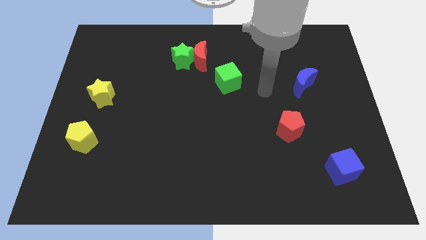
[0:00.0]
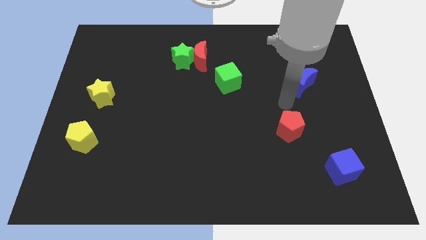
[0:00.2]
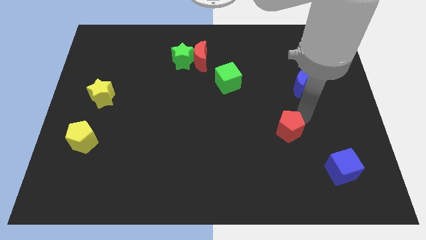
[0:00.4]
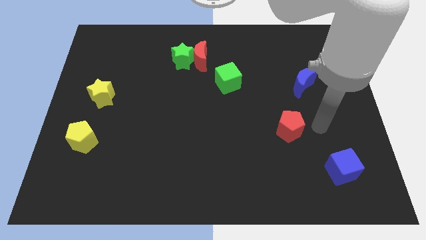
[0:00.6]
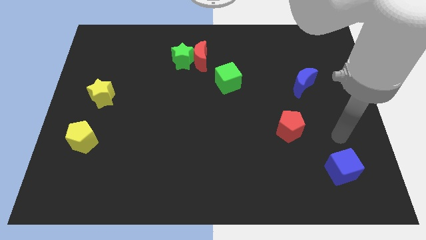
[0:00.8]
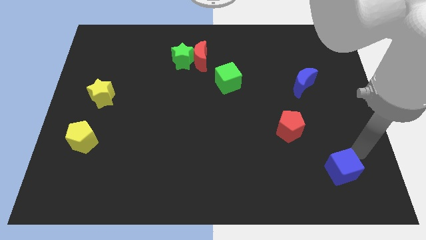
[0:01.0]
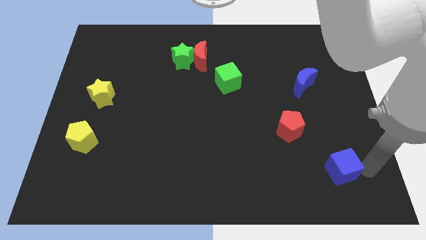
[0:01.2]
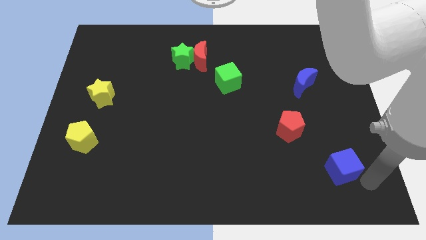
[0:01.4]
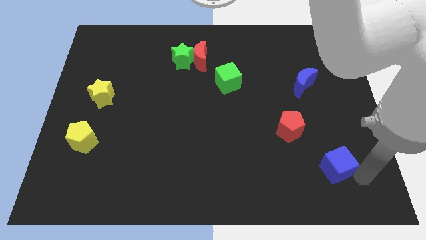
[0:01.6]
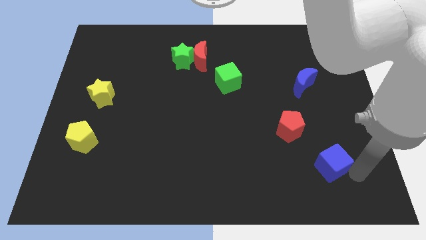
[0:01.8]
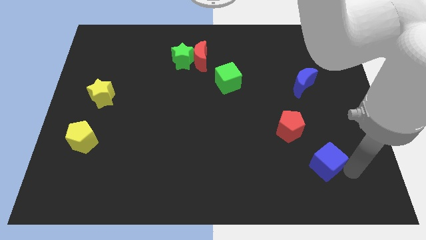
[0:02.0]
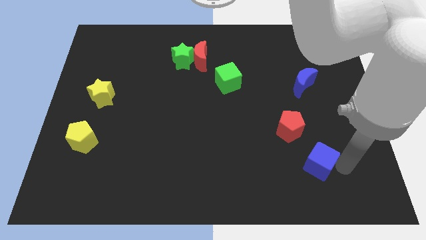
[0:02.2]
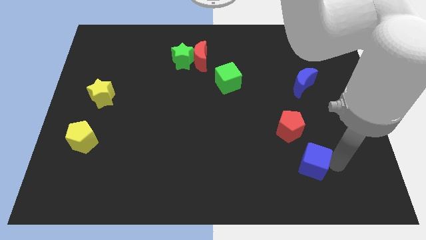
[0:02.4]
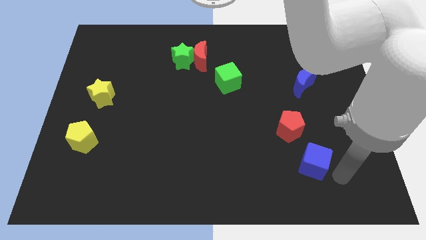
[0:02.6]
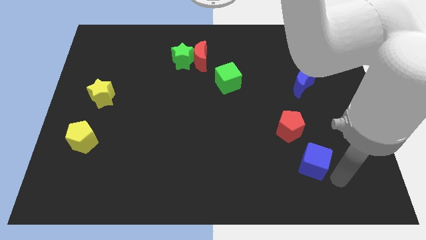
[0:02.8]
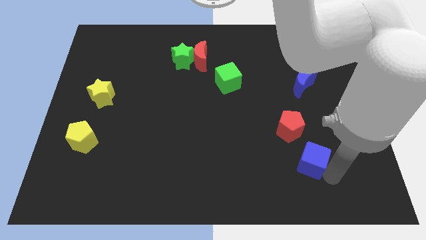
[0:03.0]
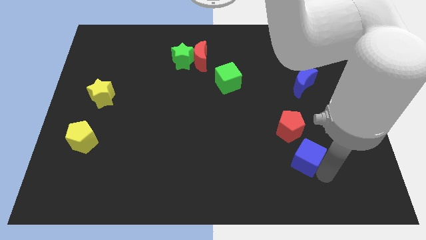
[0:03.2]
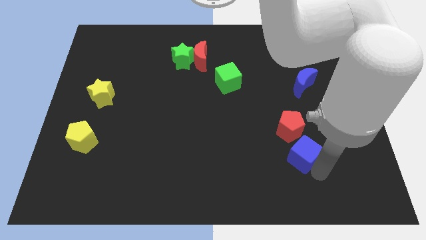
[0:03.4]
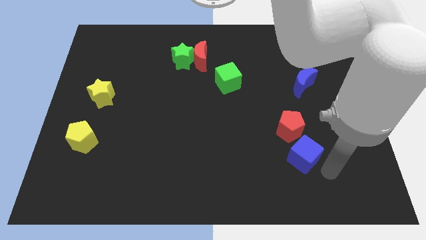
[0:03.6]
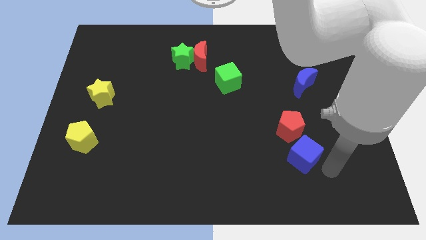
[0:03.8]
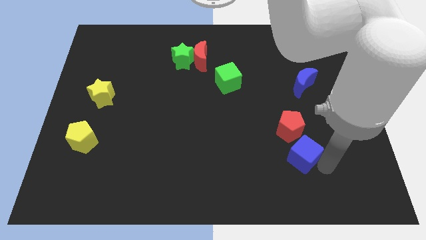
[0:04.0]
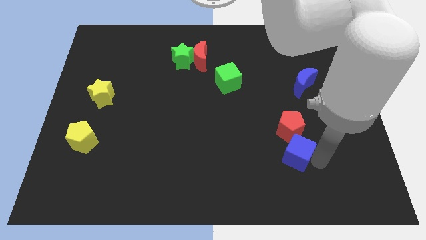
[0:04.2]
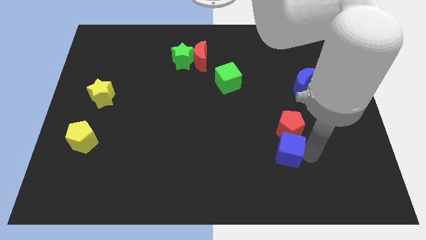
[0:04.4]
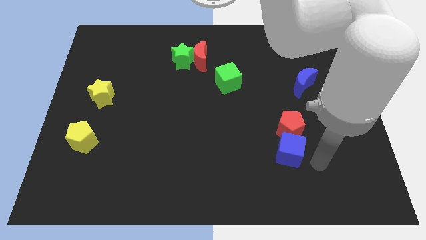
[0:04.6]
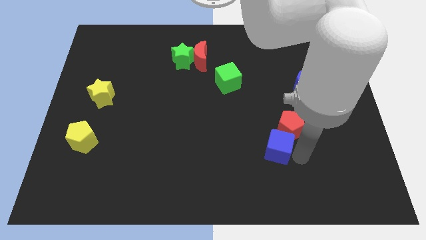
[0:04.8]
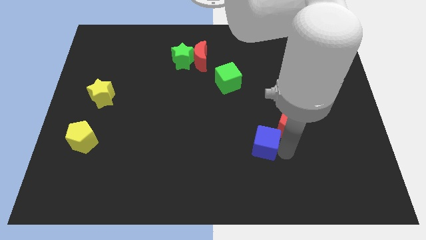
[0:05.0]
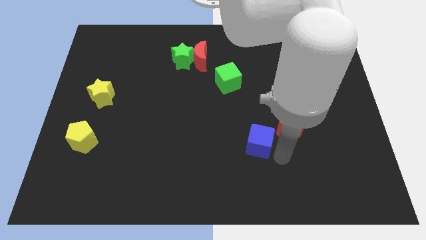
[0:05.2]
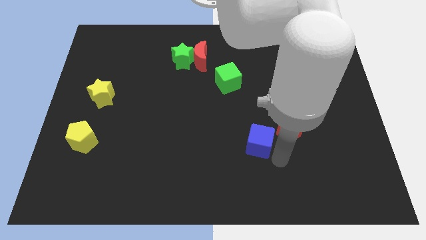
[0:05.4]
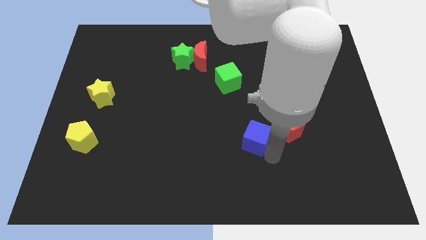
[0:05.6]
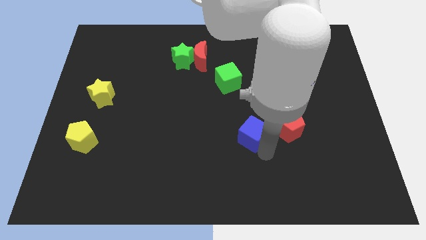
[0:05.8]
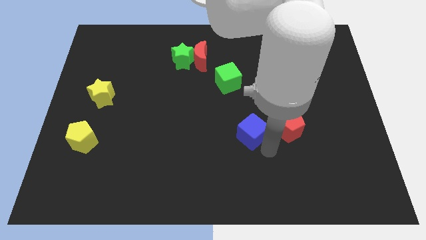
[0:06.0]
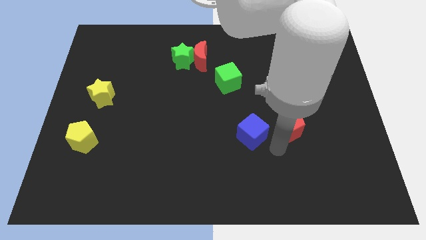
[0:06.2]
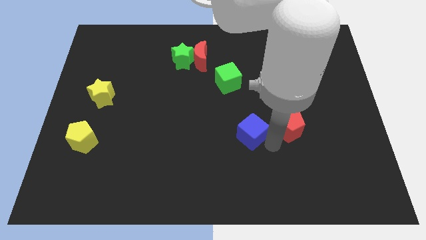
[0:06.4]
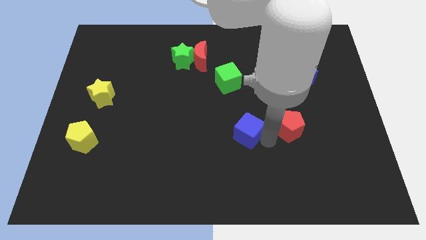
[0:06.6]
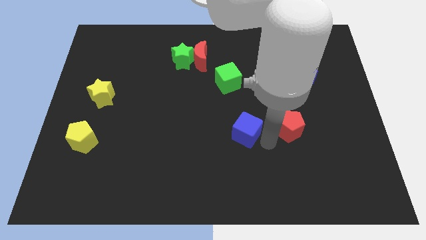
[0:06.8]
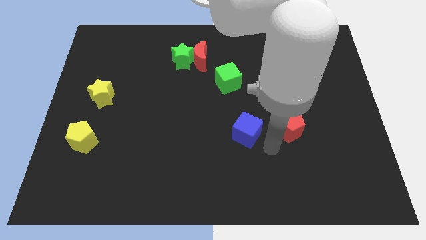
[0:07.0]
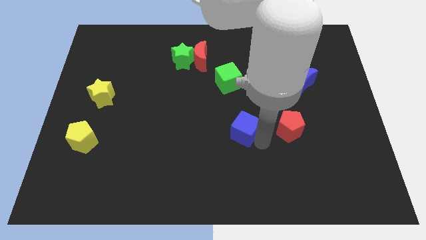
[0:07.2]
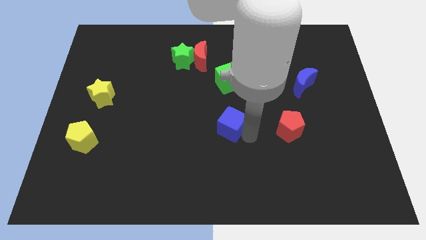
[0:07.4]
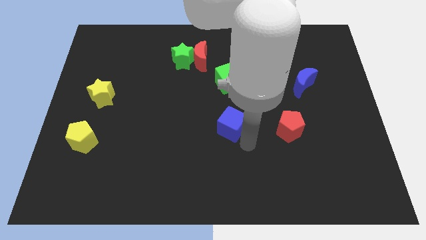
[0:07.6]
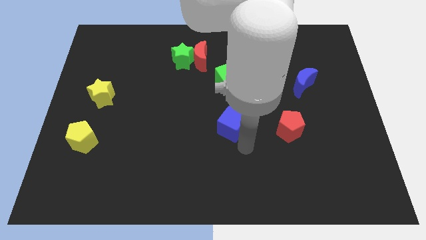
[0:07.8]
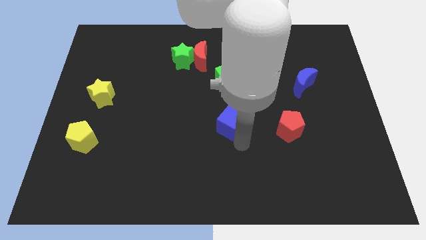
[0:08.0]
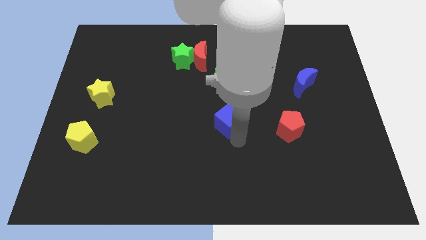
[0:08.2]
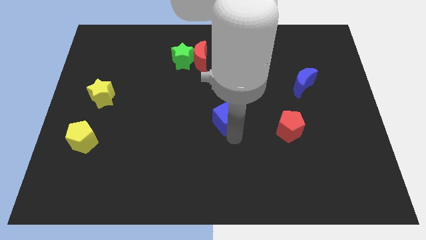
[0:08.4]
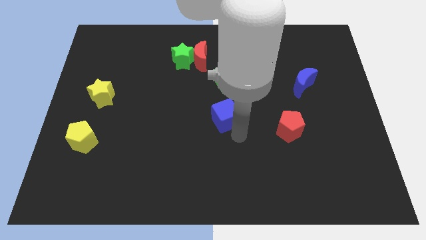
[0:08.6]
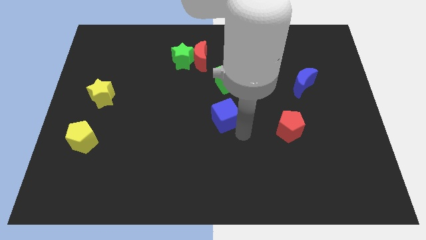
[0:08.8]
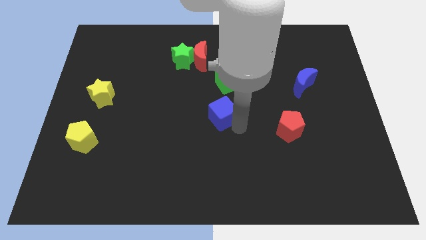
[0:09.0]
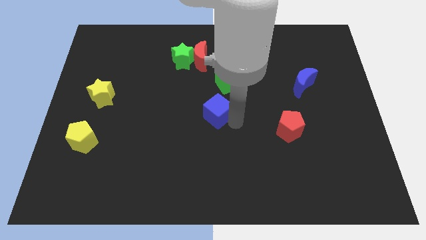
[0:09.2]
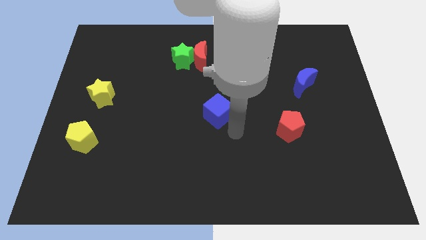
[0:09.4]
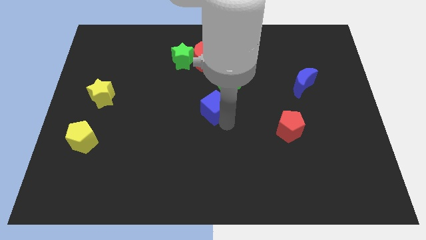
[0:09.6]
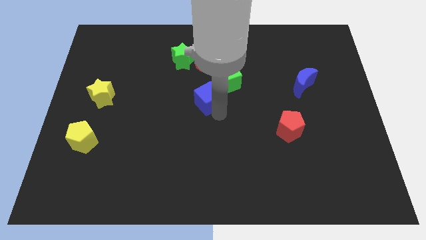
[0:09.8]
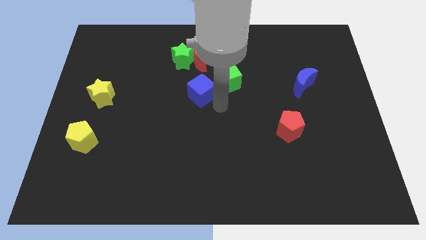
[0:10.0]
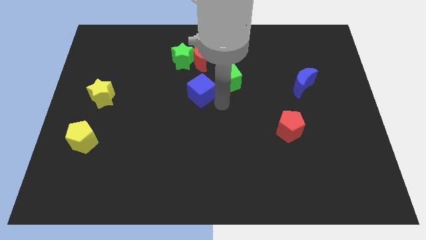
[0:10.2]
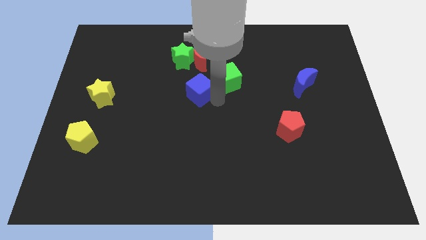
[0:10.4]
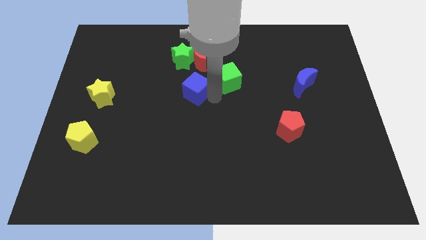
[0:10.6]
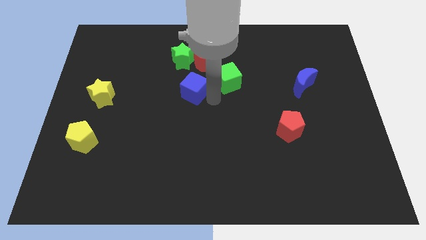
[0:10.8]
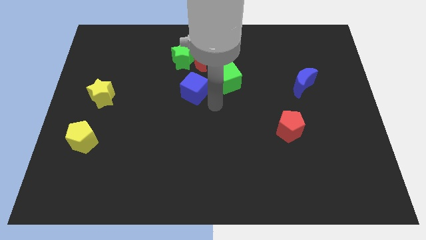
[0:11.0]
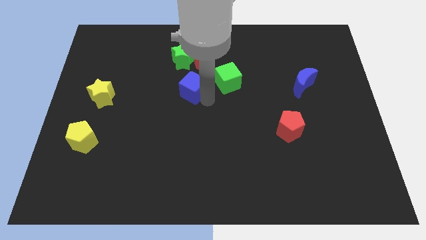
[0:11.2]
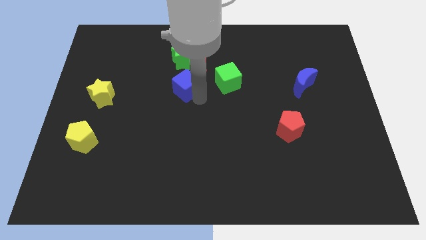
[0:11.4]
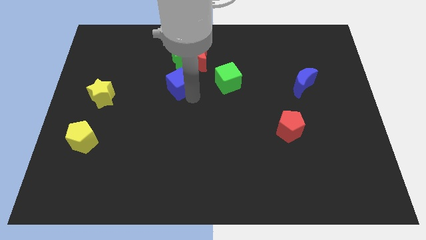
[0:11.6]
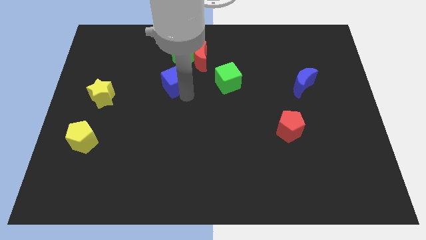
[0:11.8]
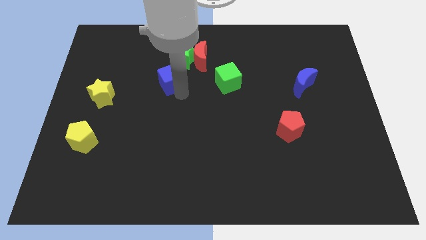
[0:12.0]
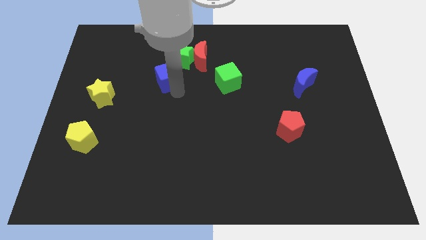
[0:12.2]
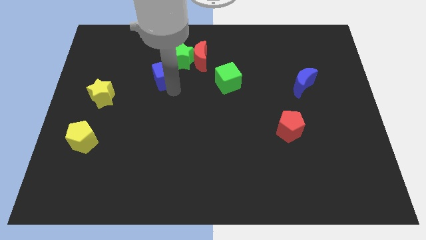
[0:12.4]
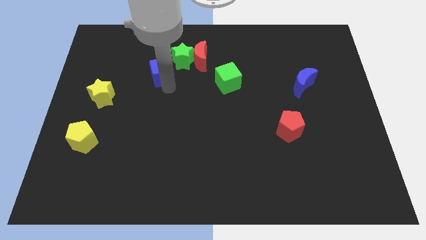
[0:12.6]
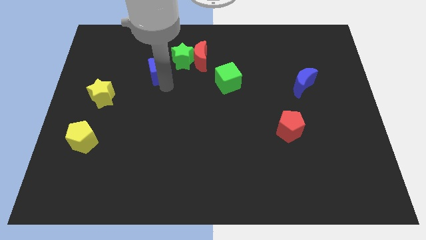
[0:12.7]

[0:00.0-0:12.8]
push the blue cube left of the red moon

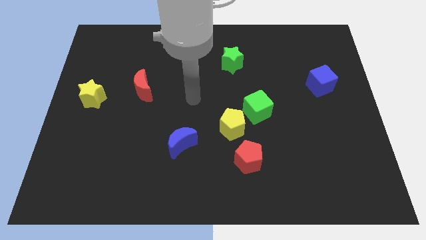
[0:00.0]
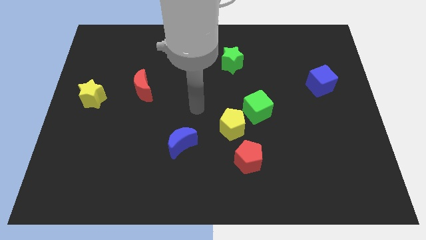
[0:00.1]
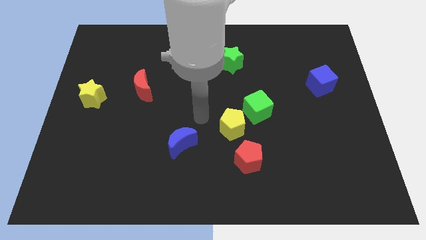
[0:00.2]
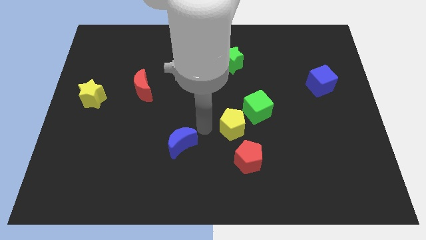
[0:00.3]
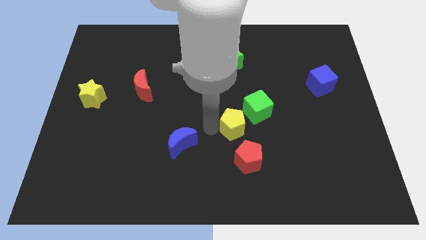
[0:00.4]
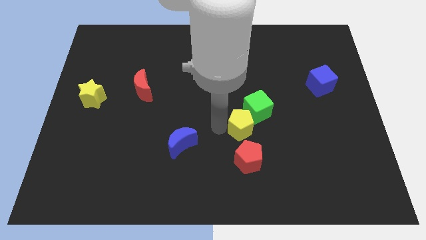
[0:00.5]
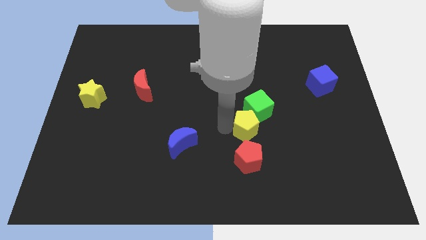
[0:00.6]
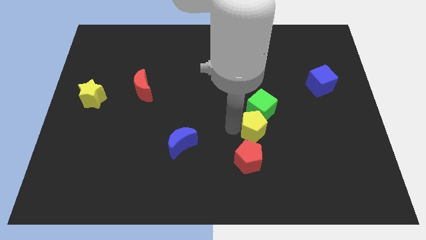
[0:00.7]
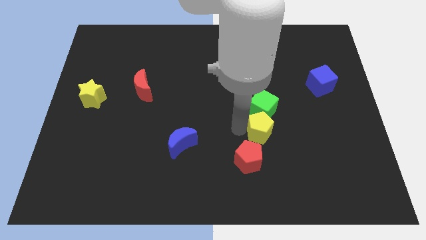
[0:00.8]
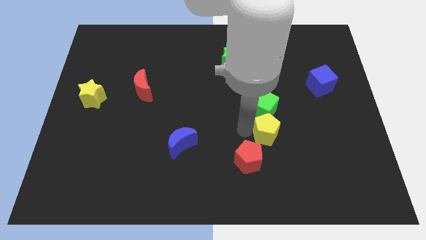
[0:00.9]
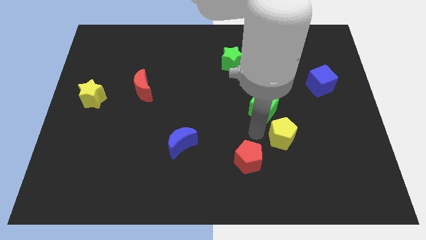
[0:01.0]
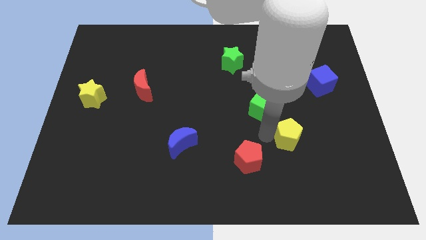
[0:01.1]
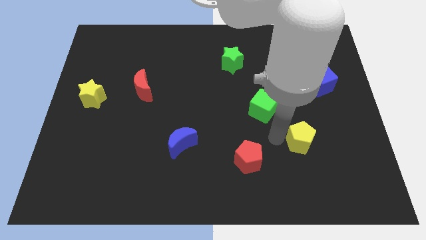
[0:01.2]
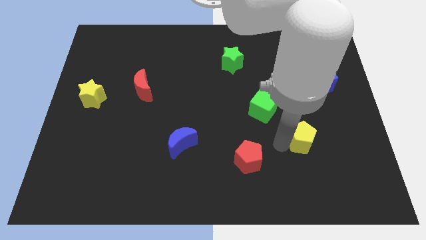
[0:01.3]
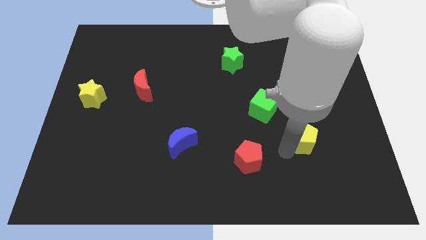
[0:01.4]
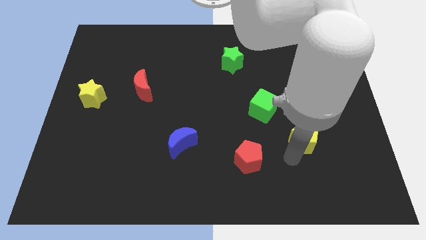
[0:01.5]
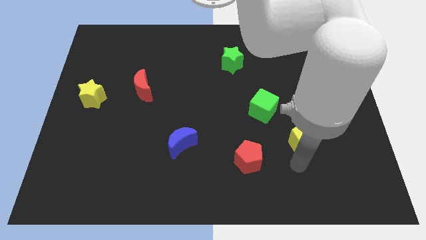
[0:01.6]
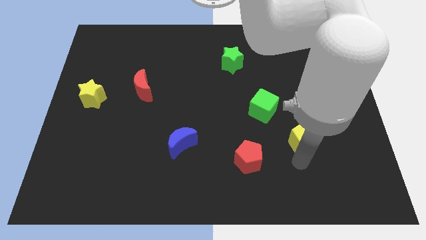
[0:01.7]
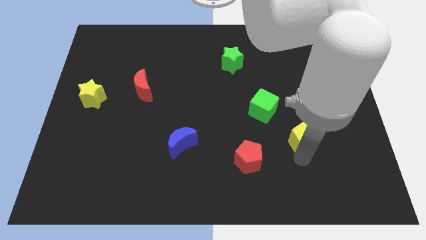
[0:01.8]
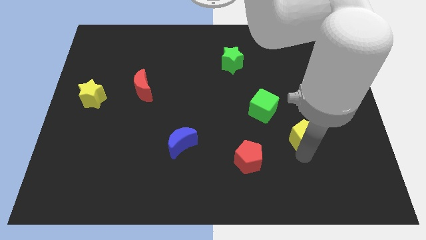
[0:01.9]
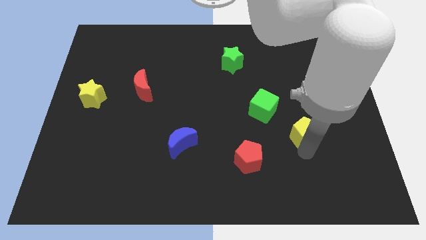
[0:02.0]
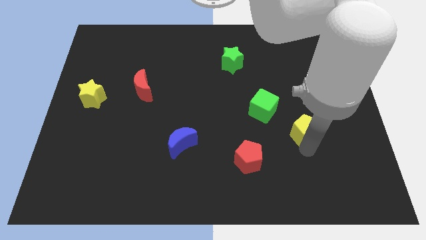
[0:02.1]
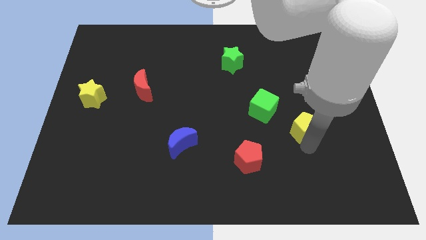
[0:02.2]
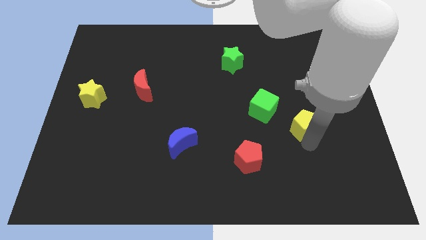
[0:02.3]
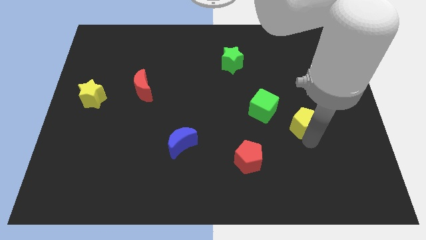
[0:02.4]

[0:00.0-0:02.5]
push the yellow pentagon just right of the green cube
